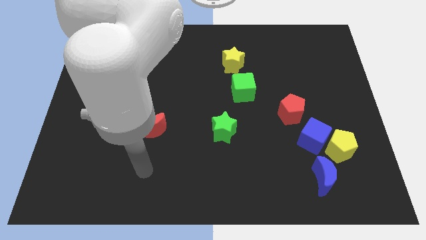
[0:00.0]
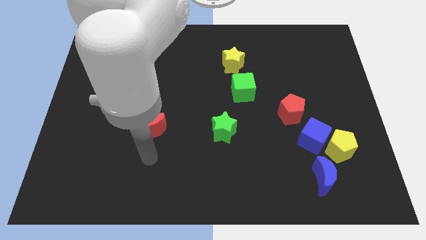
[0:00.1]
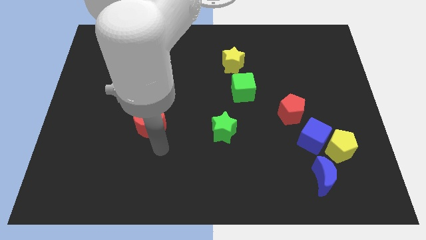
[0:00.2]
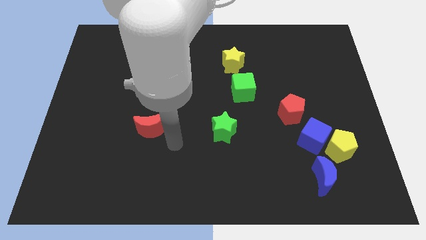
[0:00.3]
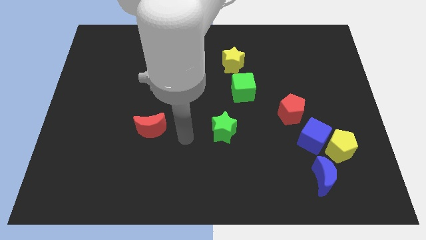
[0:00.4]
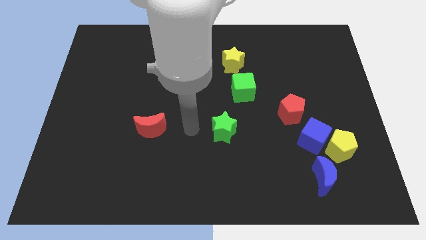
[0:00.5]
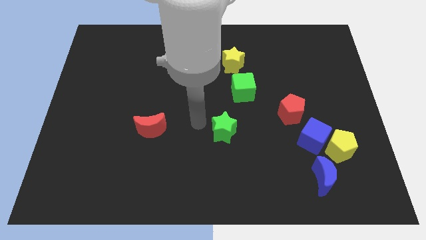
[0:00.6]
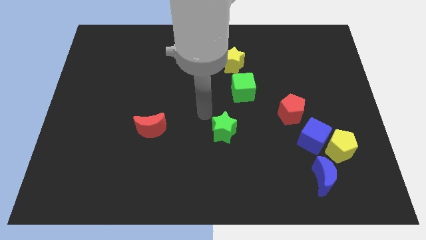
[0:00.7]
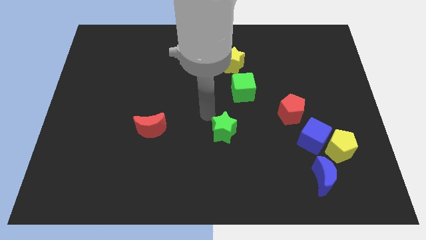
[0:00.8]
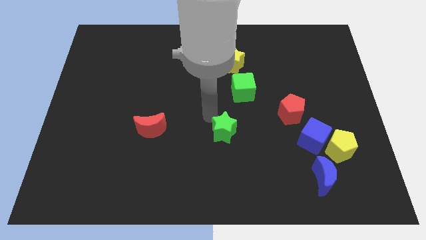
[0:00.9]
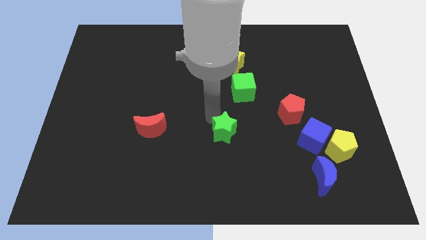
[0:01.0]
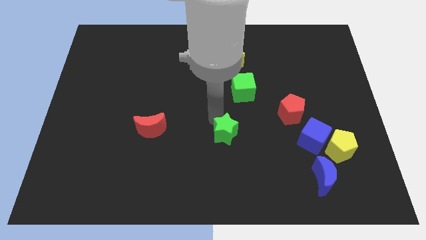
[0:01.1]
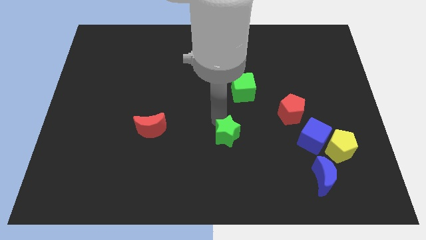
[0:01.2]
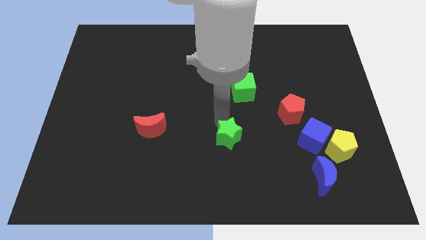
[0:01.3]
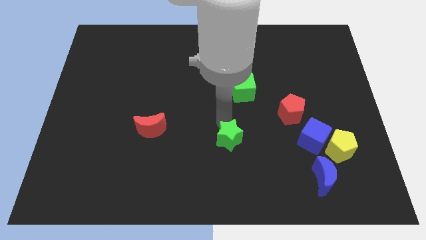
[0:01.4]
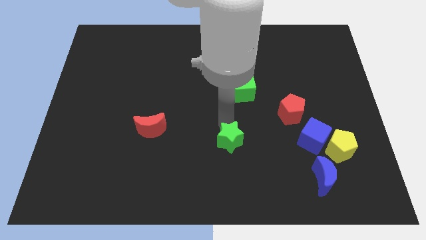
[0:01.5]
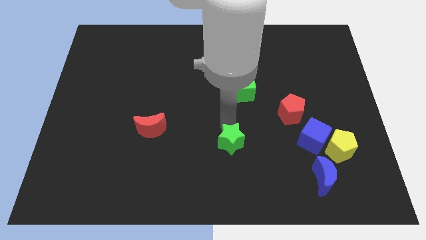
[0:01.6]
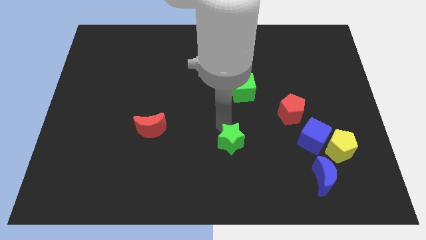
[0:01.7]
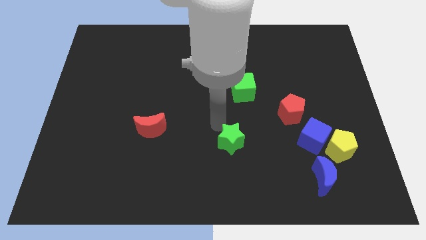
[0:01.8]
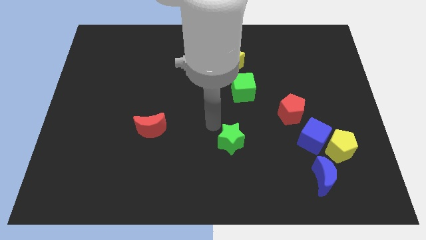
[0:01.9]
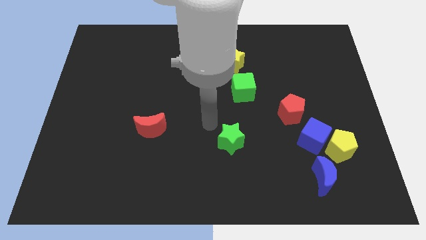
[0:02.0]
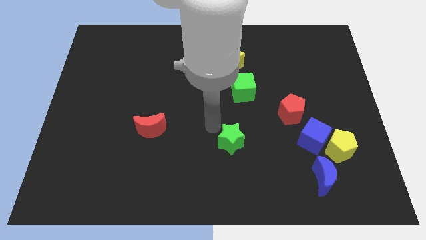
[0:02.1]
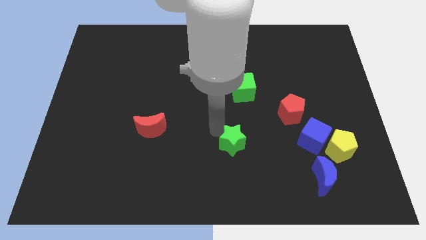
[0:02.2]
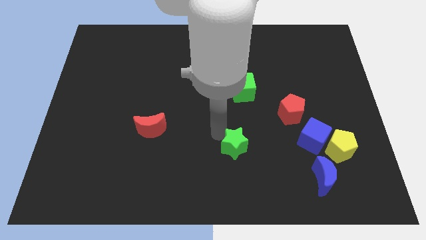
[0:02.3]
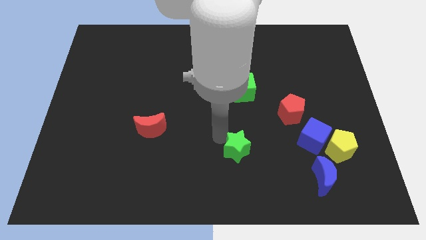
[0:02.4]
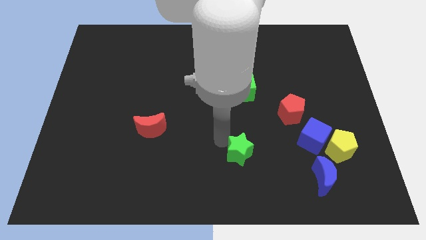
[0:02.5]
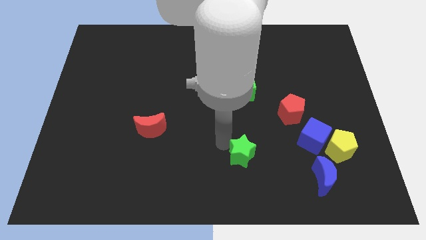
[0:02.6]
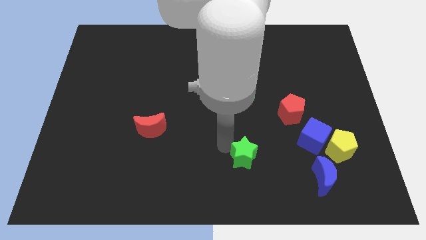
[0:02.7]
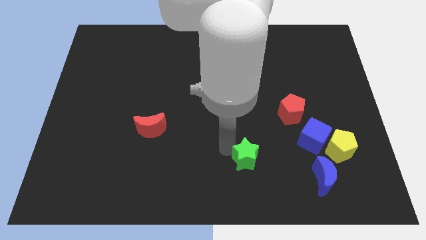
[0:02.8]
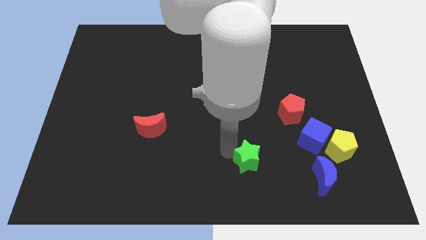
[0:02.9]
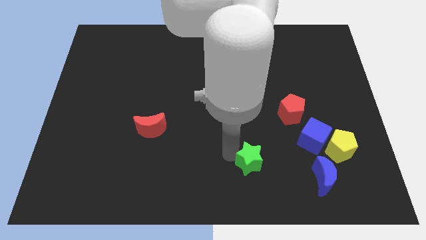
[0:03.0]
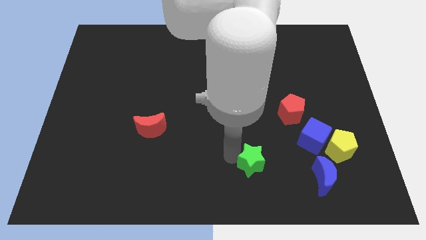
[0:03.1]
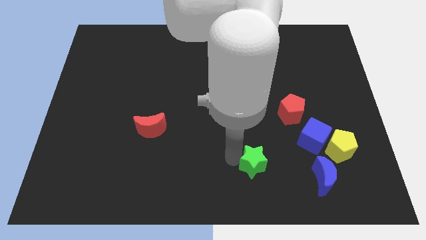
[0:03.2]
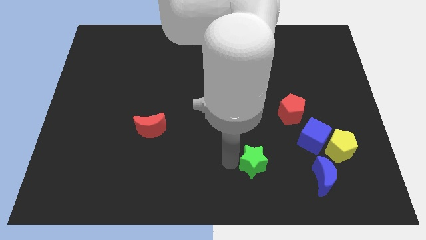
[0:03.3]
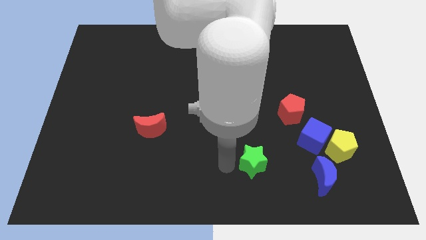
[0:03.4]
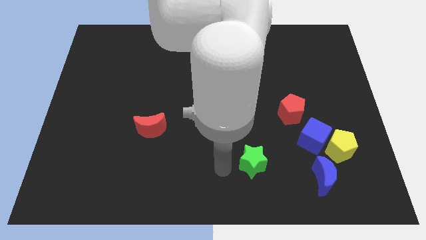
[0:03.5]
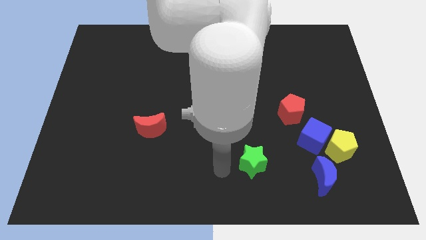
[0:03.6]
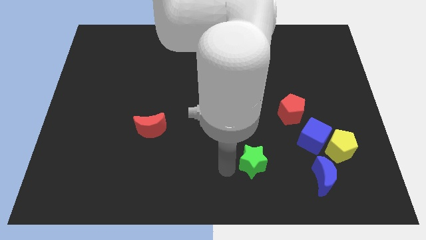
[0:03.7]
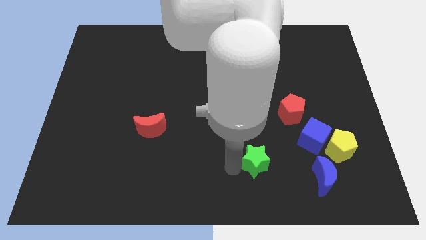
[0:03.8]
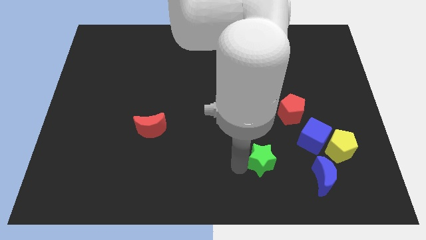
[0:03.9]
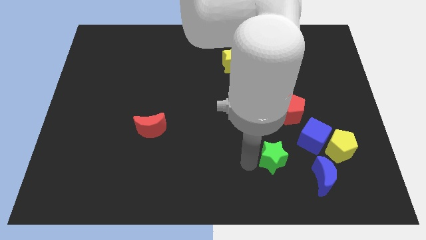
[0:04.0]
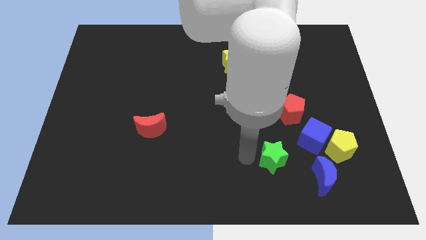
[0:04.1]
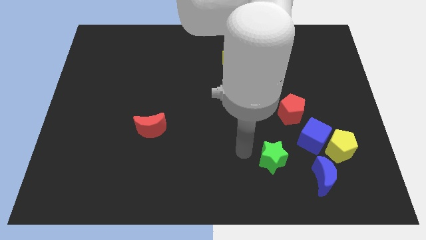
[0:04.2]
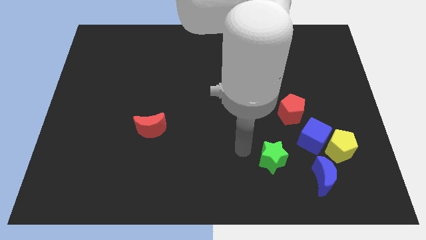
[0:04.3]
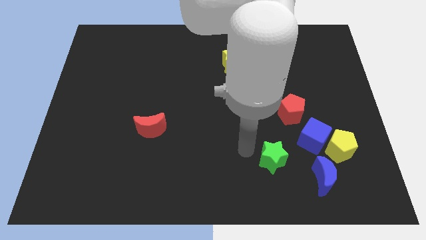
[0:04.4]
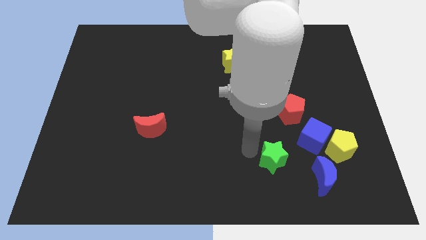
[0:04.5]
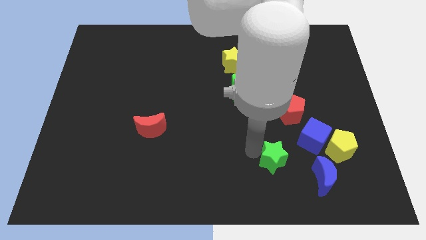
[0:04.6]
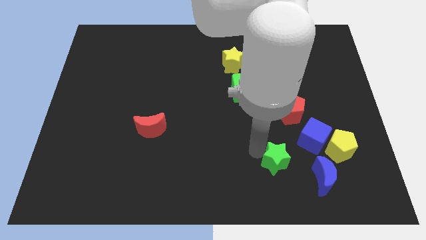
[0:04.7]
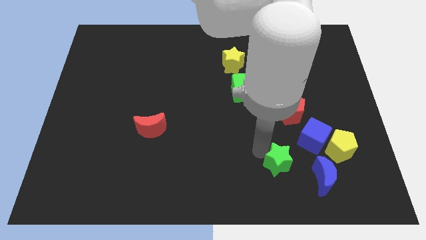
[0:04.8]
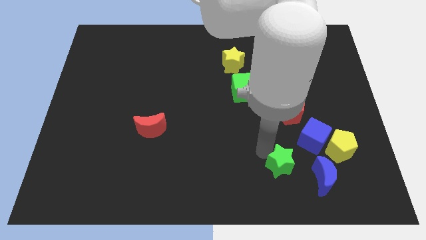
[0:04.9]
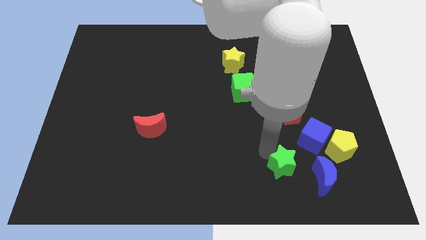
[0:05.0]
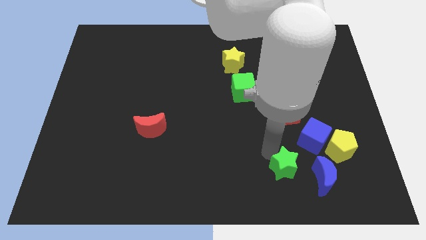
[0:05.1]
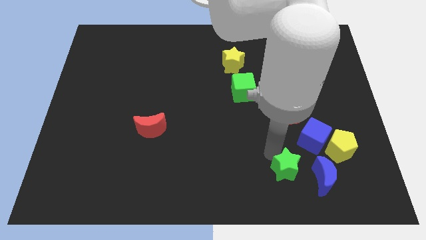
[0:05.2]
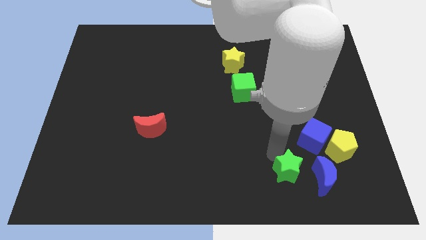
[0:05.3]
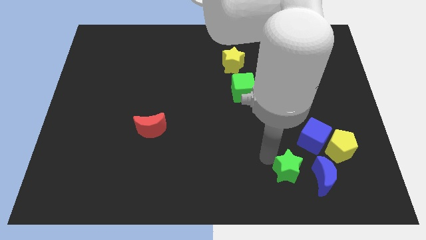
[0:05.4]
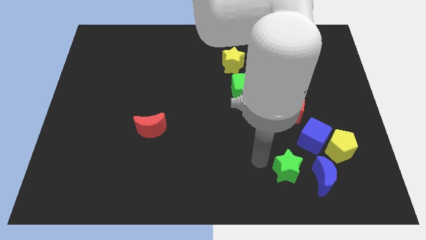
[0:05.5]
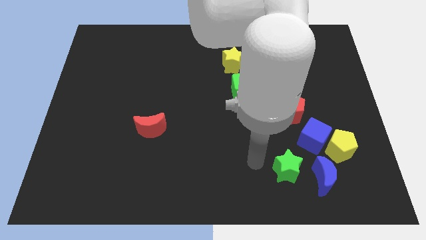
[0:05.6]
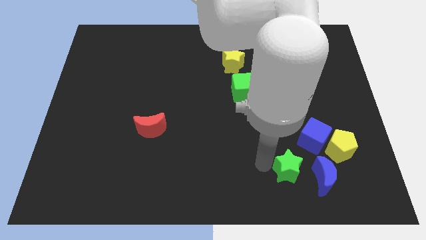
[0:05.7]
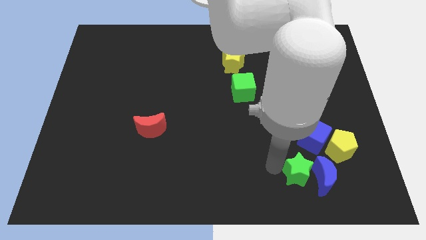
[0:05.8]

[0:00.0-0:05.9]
move the green star close to the blue moon

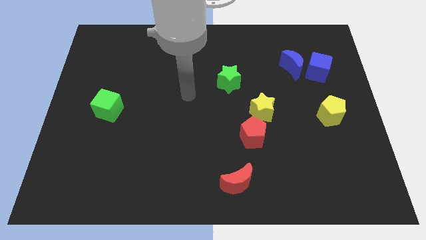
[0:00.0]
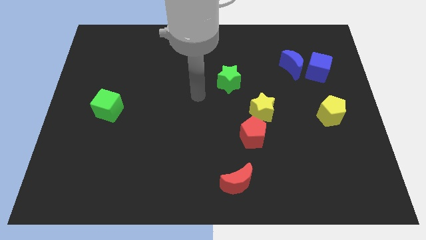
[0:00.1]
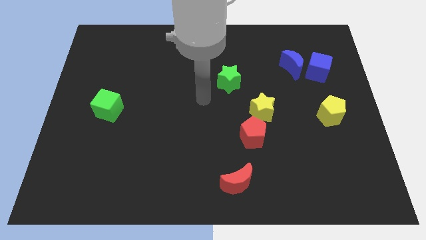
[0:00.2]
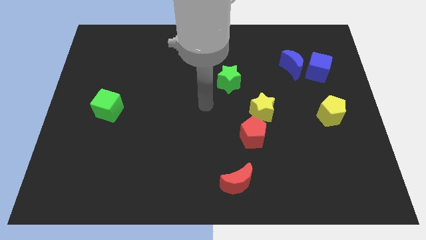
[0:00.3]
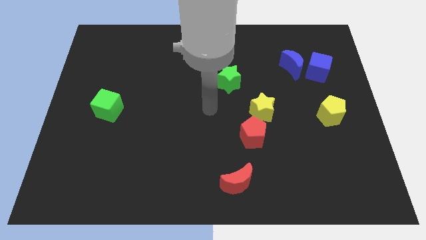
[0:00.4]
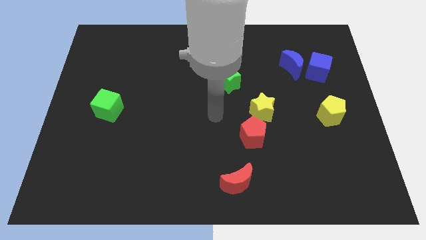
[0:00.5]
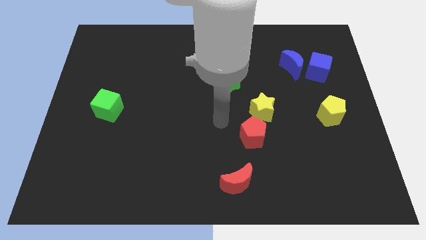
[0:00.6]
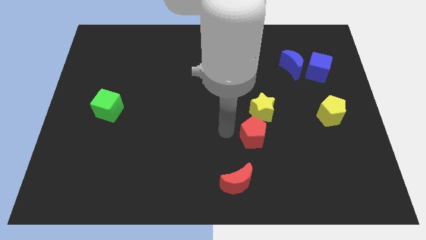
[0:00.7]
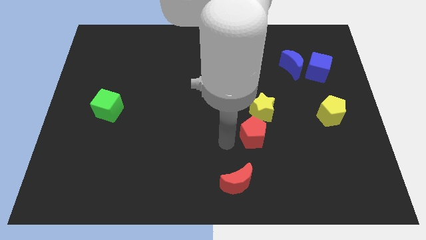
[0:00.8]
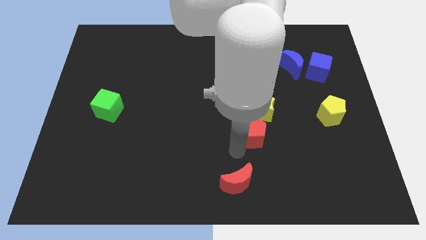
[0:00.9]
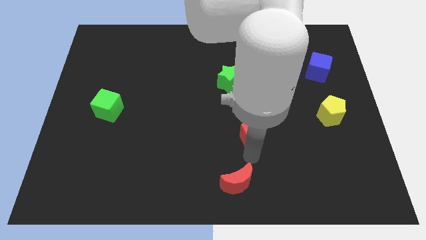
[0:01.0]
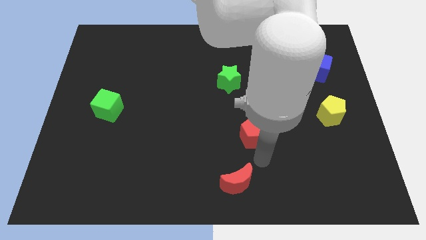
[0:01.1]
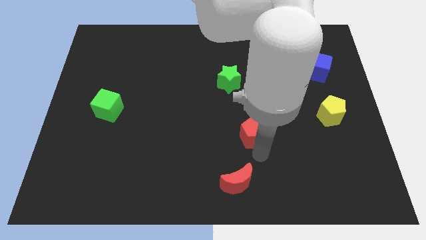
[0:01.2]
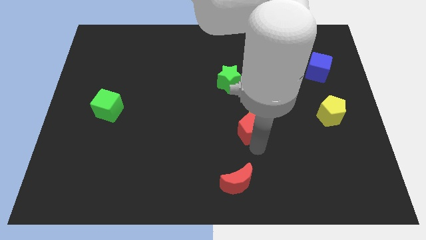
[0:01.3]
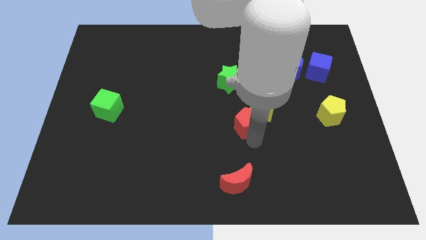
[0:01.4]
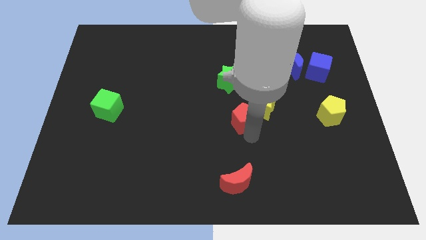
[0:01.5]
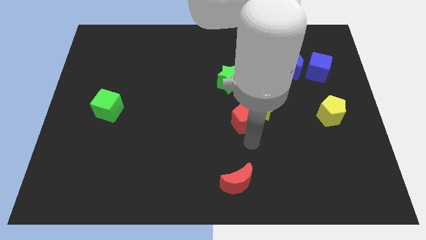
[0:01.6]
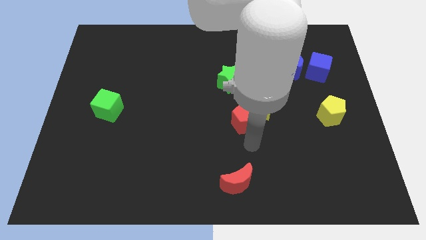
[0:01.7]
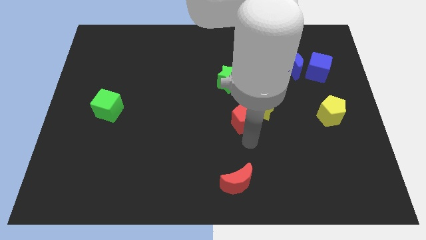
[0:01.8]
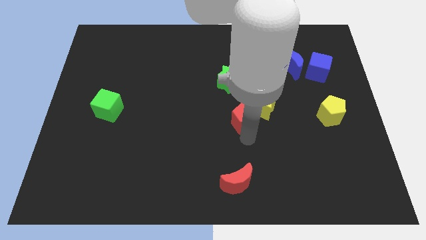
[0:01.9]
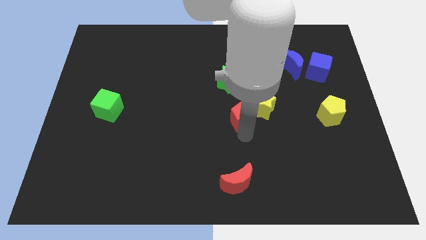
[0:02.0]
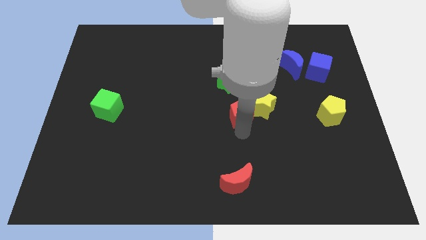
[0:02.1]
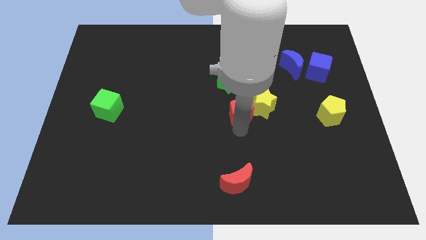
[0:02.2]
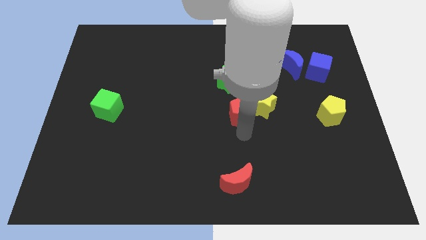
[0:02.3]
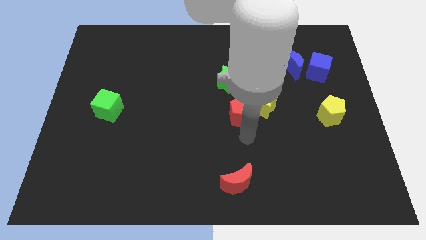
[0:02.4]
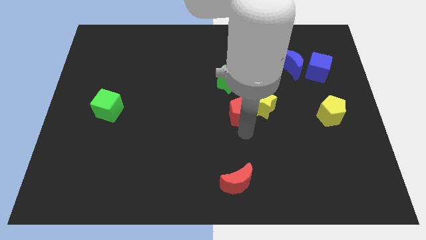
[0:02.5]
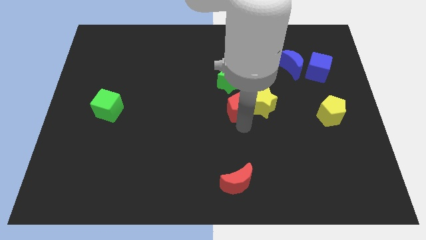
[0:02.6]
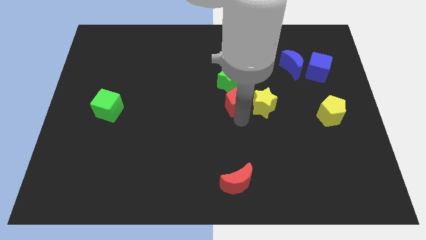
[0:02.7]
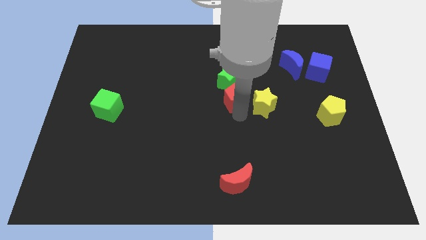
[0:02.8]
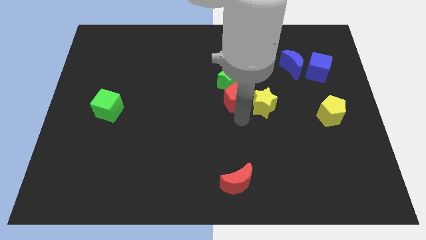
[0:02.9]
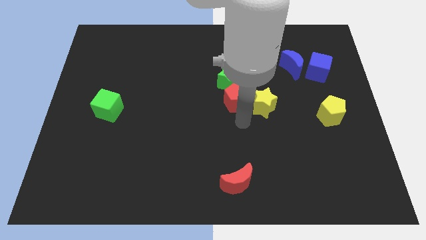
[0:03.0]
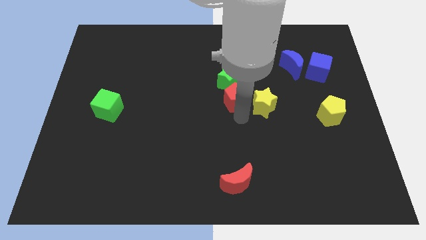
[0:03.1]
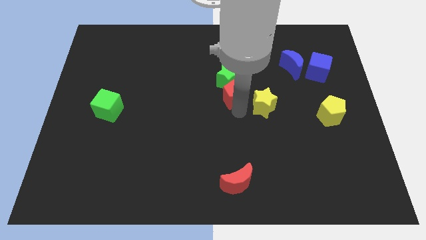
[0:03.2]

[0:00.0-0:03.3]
push the red pentagon close to the green star
